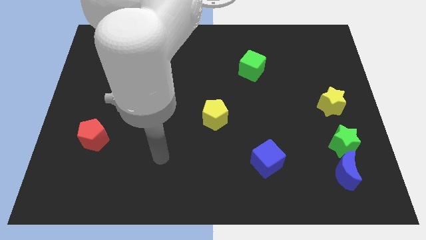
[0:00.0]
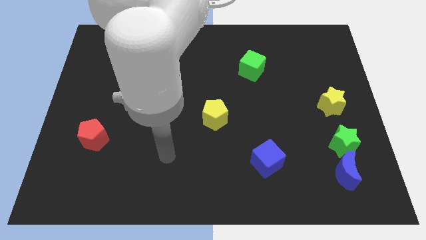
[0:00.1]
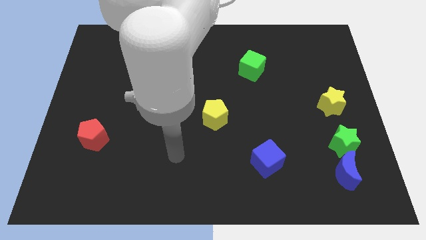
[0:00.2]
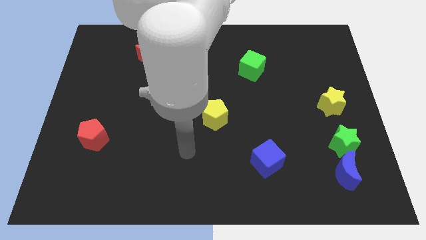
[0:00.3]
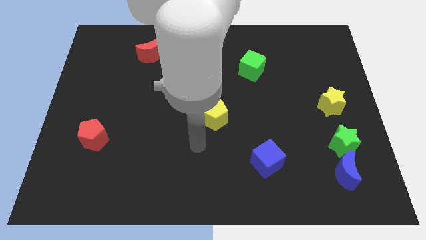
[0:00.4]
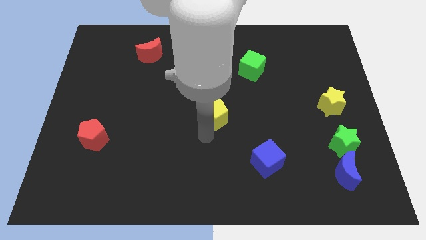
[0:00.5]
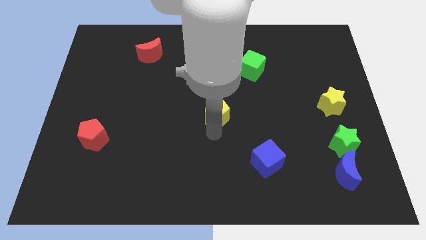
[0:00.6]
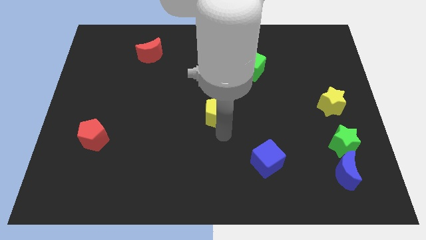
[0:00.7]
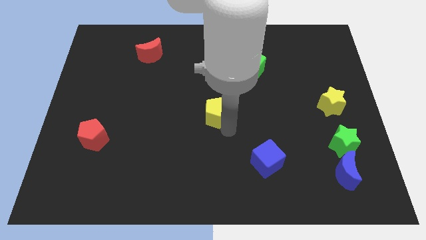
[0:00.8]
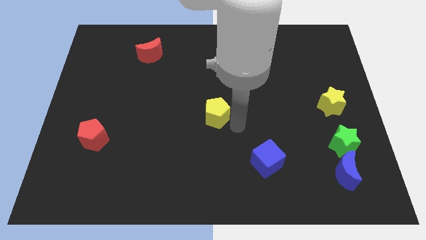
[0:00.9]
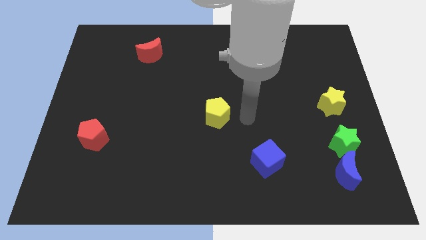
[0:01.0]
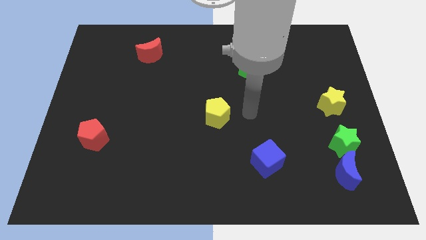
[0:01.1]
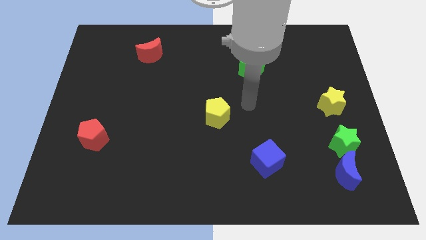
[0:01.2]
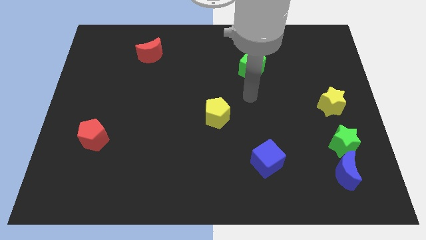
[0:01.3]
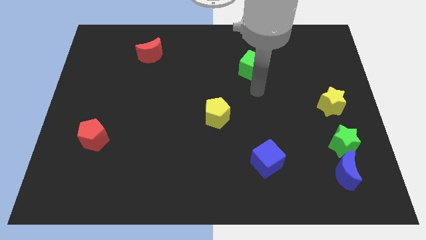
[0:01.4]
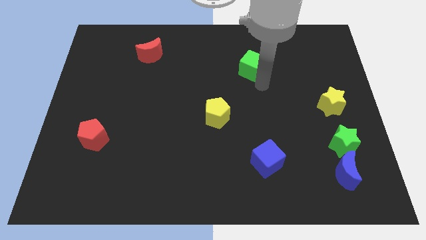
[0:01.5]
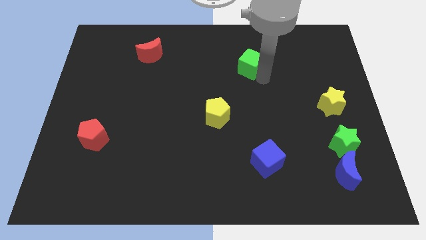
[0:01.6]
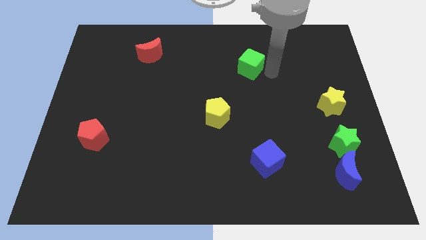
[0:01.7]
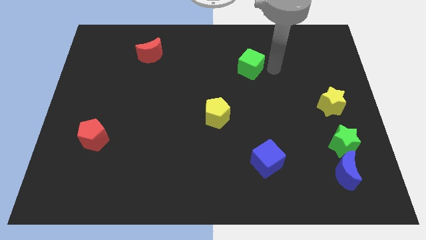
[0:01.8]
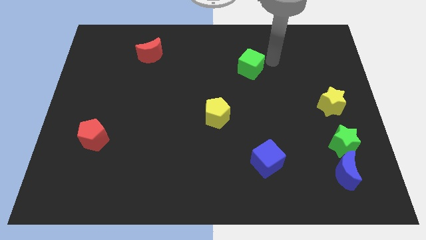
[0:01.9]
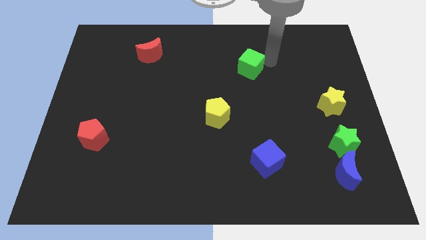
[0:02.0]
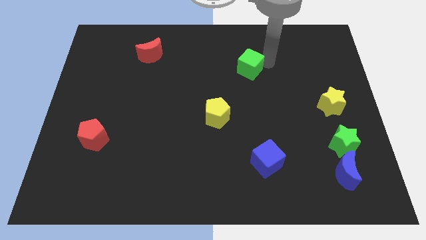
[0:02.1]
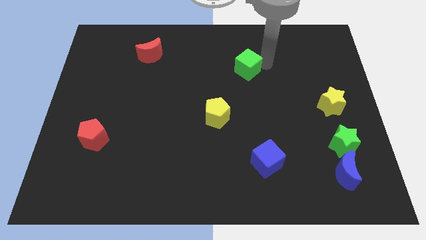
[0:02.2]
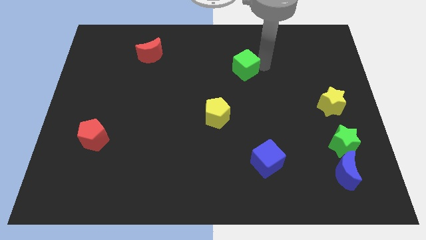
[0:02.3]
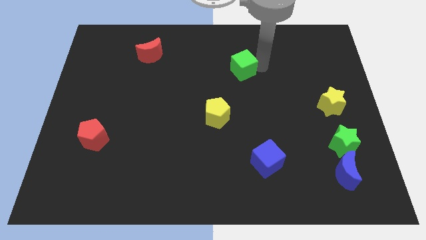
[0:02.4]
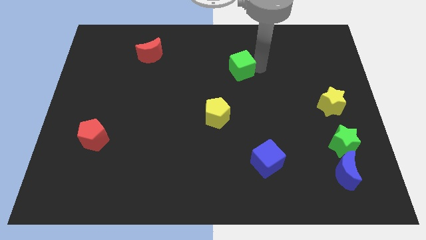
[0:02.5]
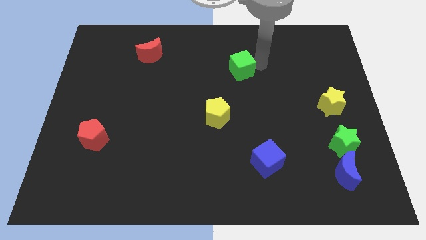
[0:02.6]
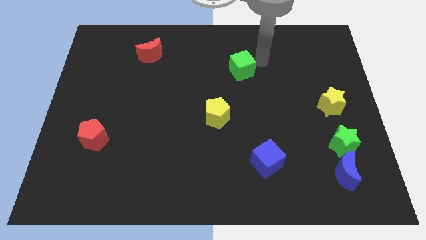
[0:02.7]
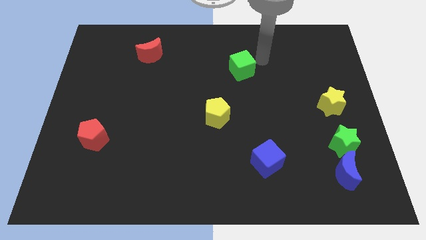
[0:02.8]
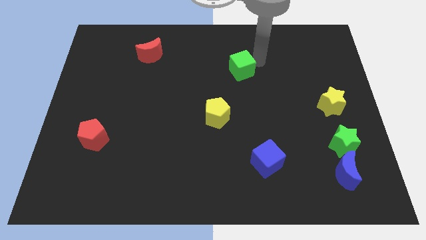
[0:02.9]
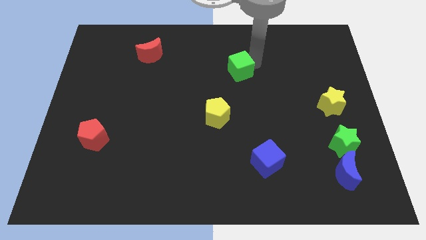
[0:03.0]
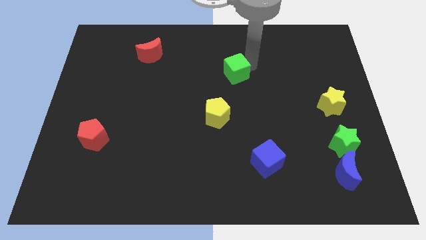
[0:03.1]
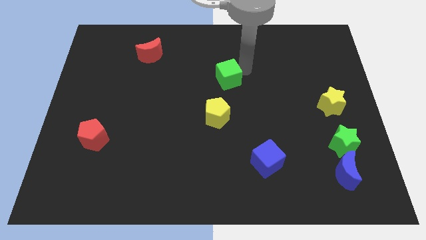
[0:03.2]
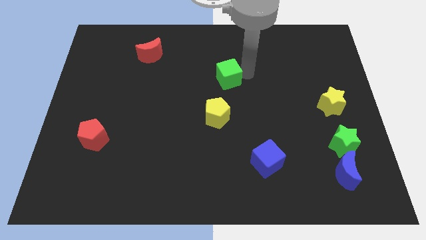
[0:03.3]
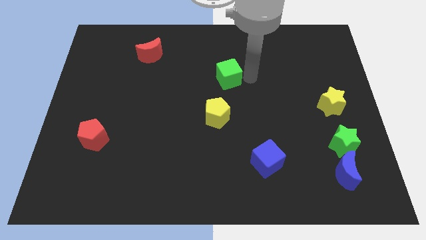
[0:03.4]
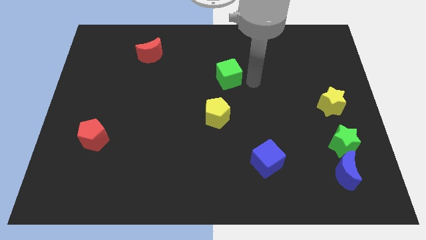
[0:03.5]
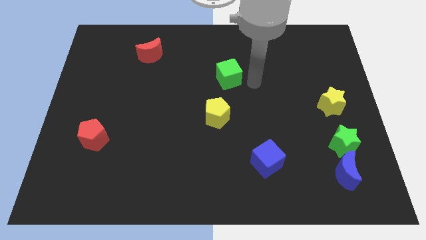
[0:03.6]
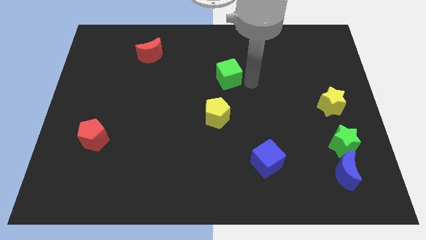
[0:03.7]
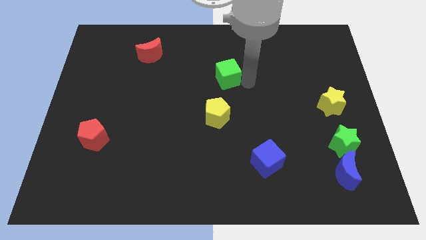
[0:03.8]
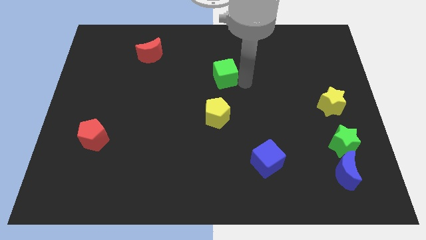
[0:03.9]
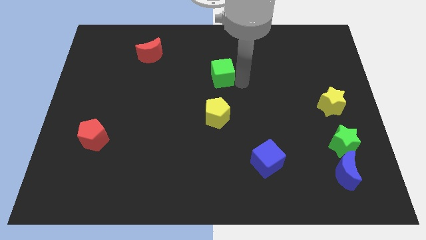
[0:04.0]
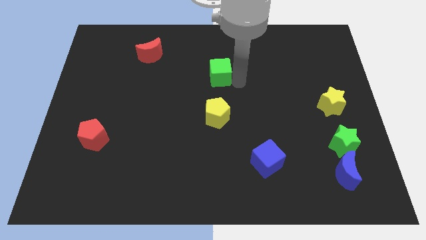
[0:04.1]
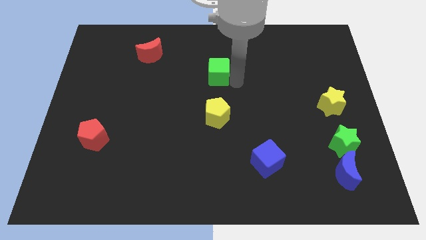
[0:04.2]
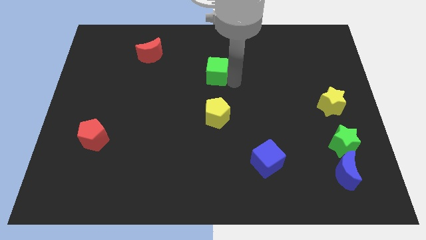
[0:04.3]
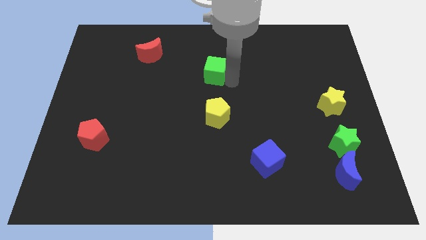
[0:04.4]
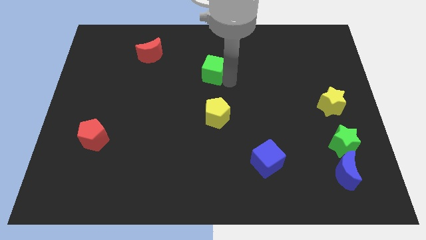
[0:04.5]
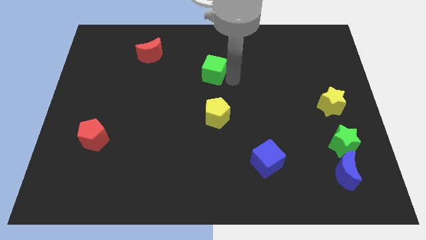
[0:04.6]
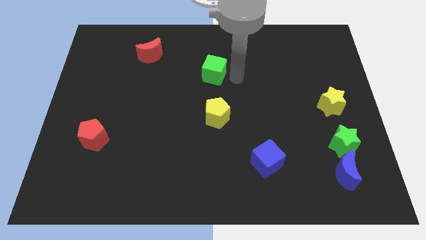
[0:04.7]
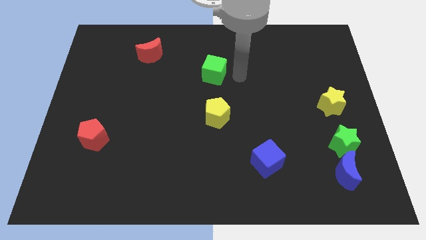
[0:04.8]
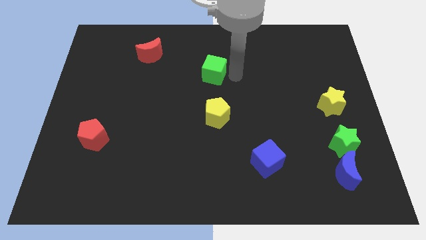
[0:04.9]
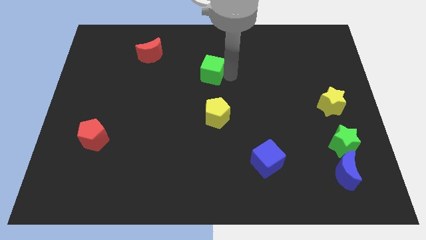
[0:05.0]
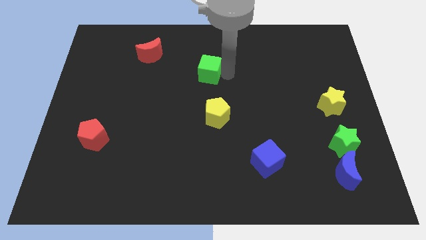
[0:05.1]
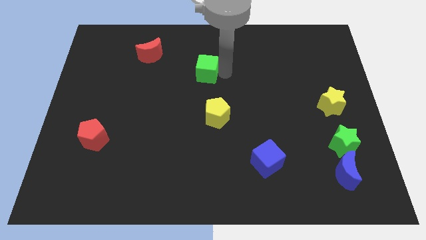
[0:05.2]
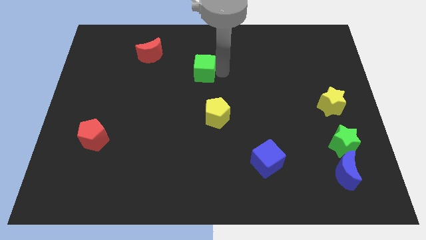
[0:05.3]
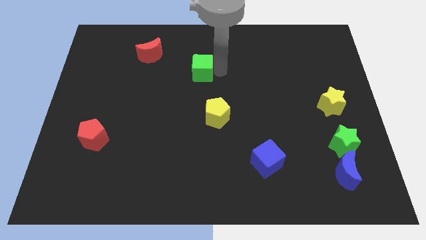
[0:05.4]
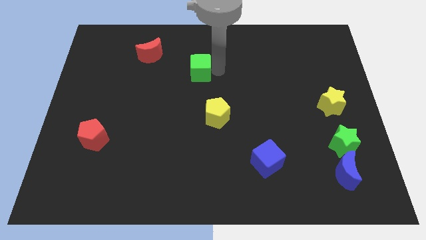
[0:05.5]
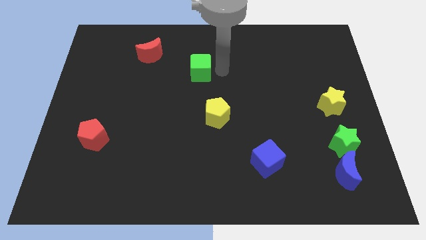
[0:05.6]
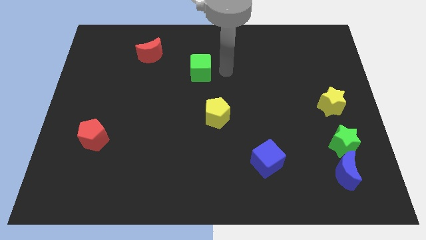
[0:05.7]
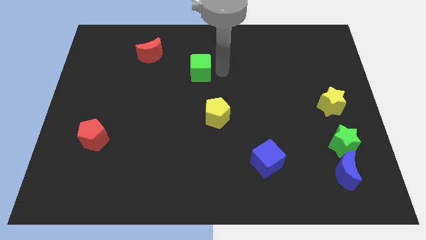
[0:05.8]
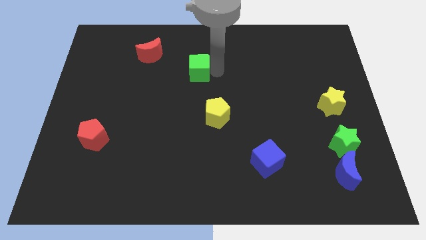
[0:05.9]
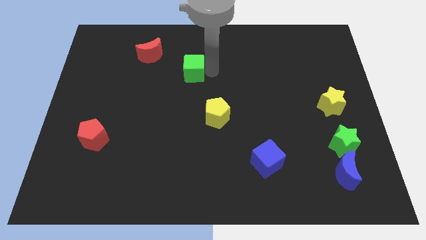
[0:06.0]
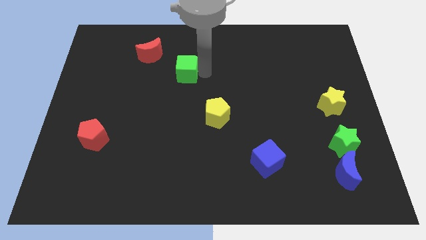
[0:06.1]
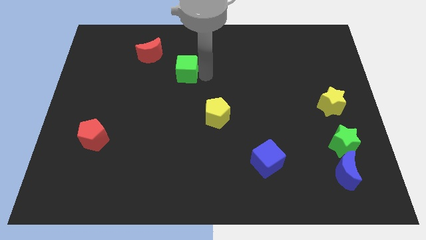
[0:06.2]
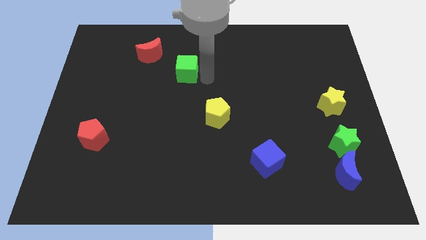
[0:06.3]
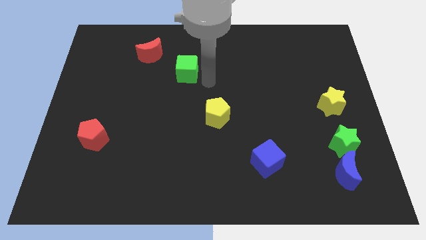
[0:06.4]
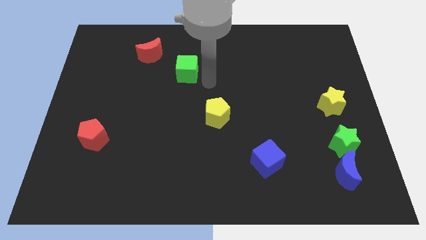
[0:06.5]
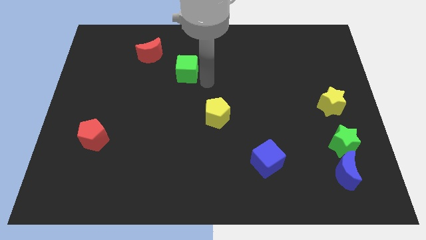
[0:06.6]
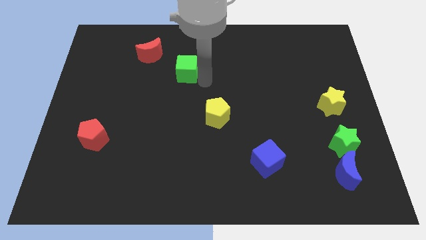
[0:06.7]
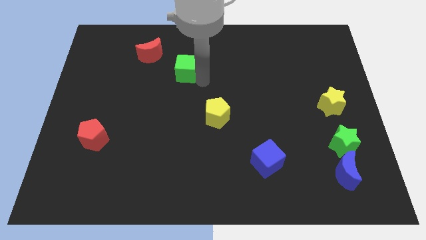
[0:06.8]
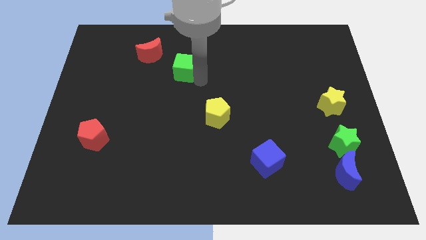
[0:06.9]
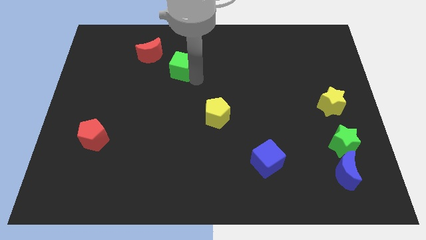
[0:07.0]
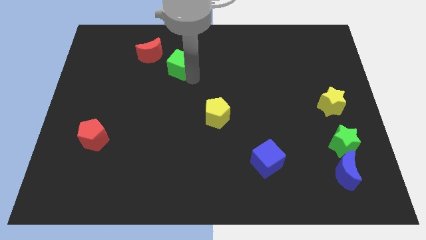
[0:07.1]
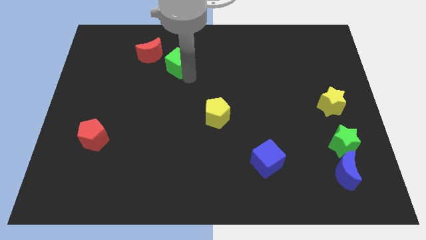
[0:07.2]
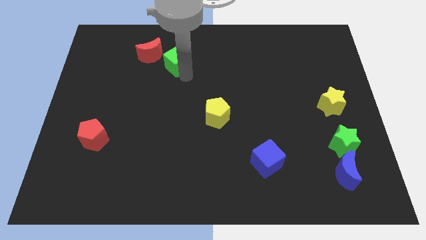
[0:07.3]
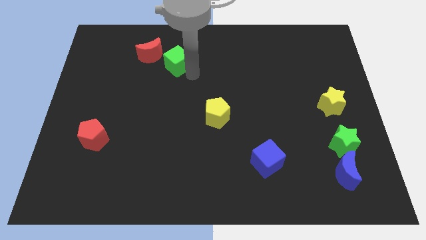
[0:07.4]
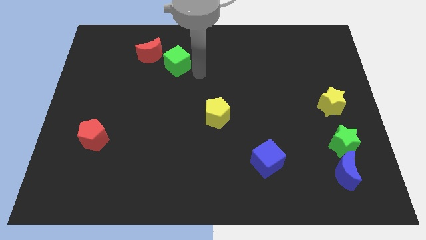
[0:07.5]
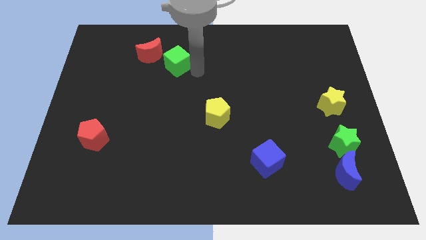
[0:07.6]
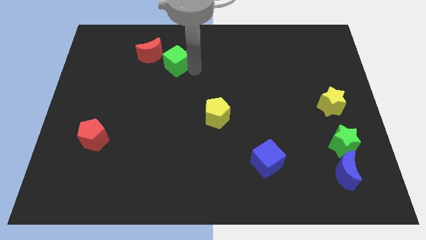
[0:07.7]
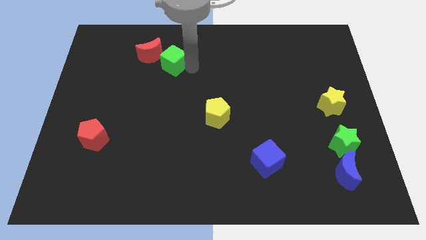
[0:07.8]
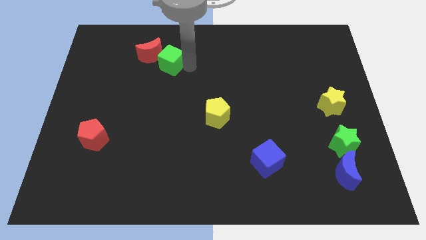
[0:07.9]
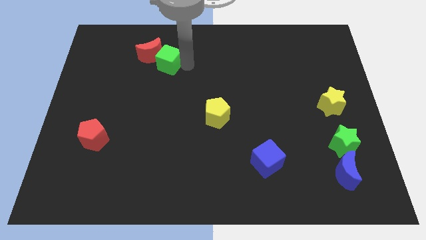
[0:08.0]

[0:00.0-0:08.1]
push the green cube close to the red moon
